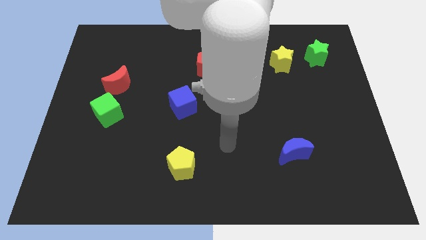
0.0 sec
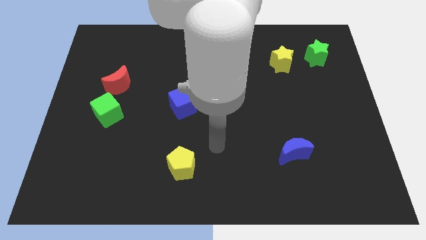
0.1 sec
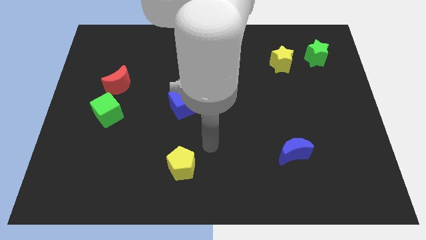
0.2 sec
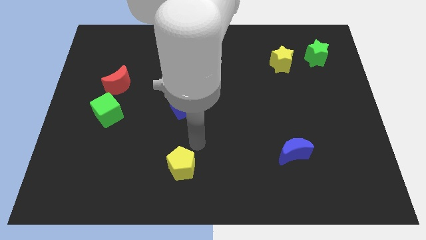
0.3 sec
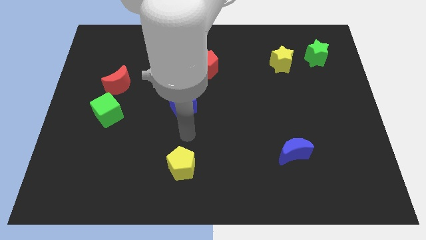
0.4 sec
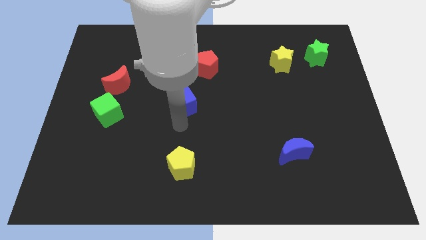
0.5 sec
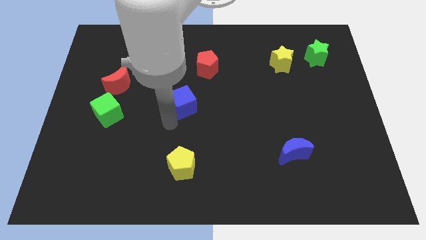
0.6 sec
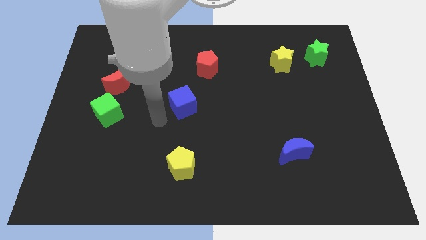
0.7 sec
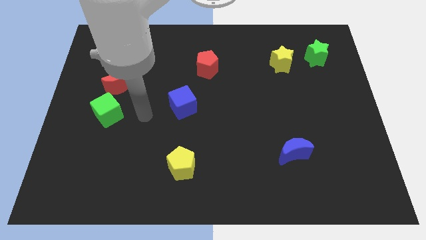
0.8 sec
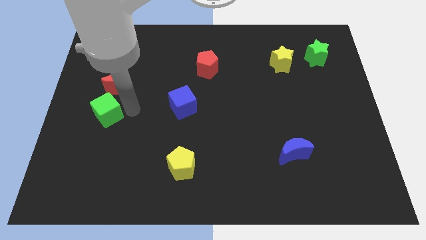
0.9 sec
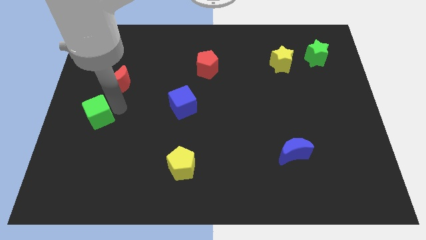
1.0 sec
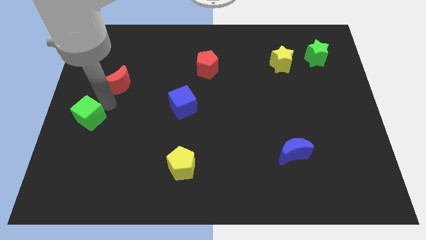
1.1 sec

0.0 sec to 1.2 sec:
move the red moon away from the green cube

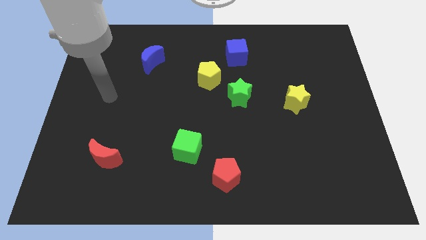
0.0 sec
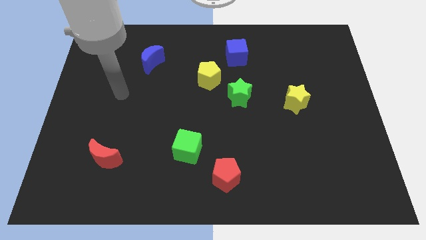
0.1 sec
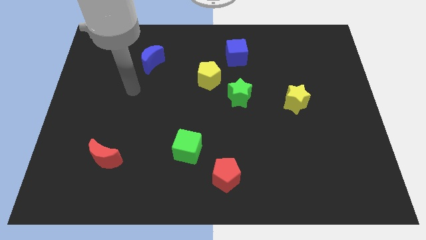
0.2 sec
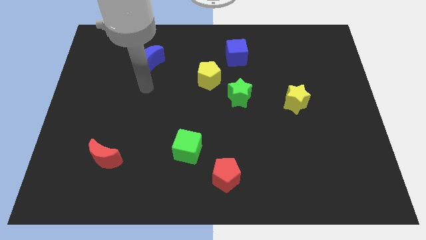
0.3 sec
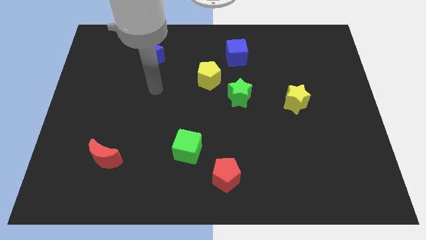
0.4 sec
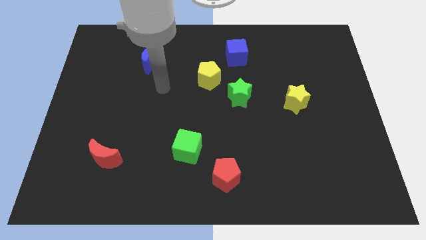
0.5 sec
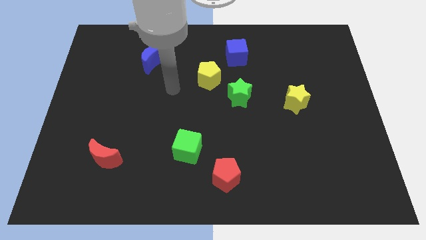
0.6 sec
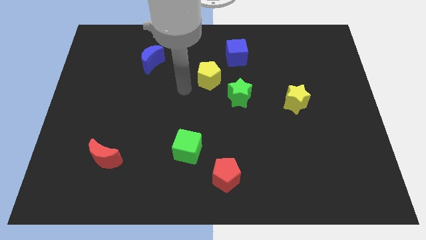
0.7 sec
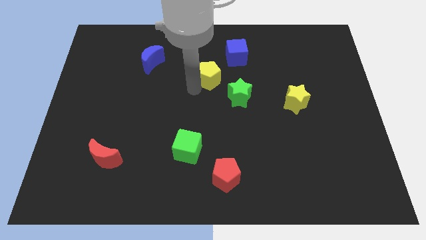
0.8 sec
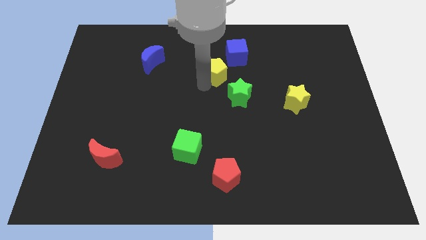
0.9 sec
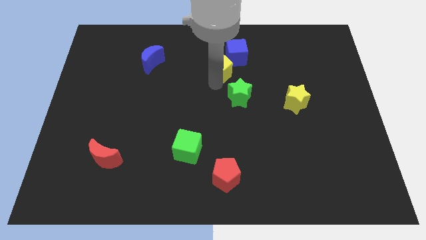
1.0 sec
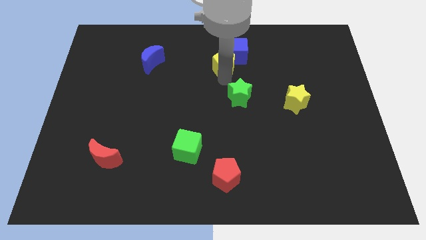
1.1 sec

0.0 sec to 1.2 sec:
pull the green star apart from the yellow pentagon

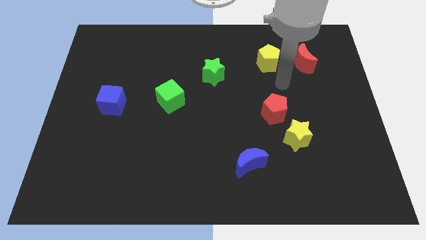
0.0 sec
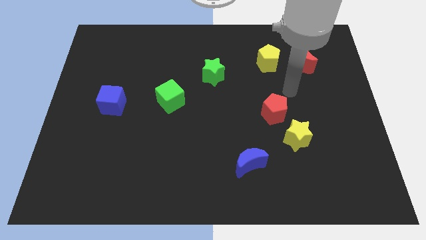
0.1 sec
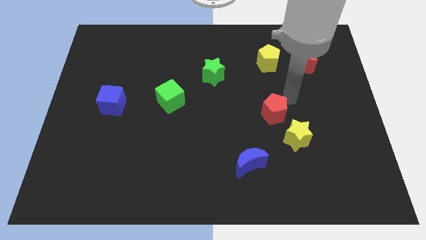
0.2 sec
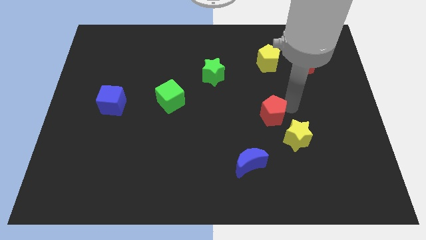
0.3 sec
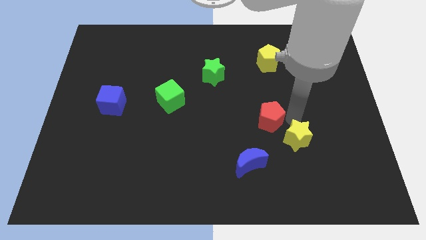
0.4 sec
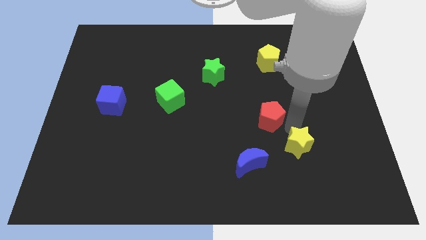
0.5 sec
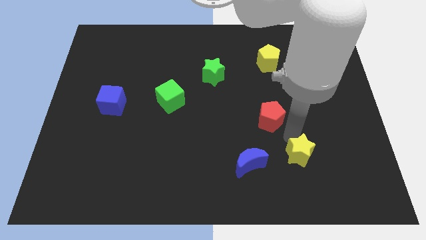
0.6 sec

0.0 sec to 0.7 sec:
separate the red pentagon from the yellow star

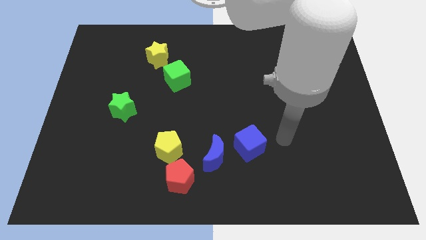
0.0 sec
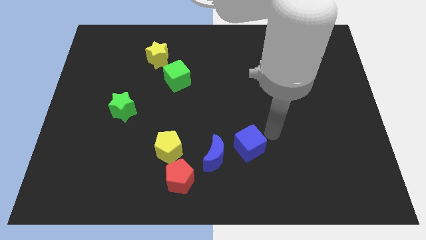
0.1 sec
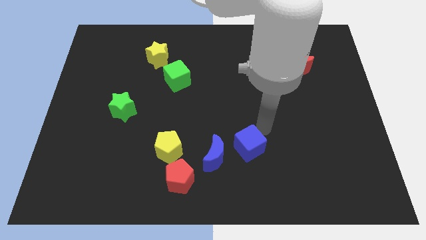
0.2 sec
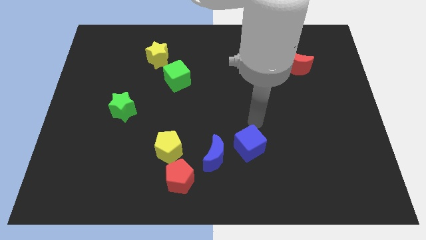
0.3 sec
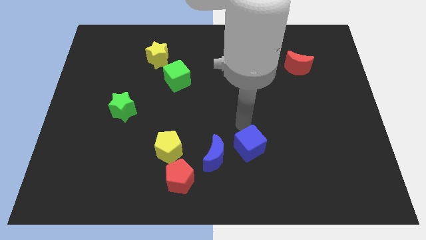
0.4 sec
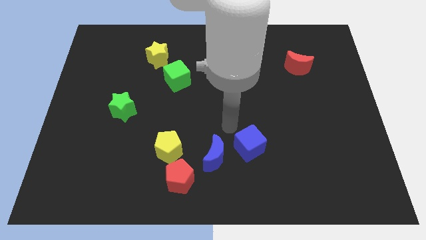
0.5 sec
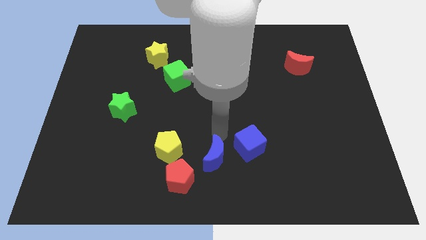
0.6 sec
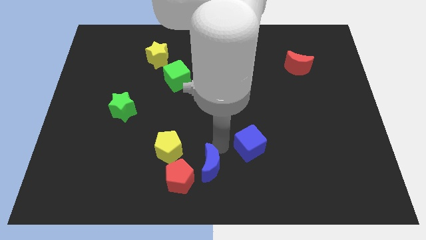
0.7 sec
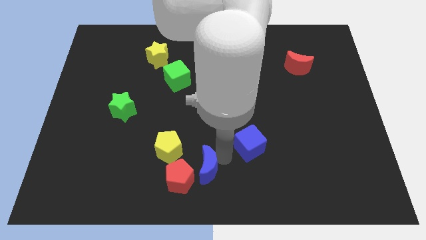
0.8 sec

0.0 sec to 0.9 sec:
separate the blue cube from the blue moon

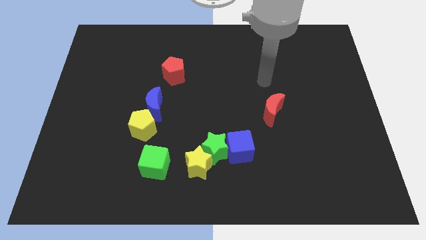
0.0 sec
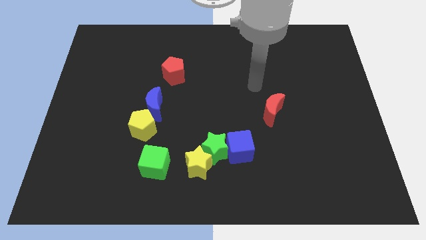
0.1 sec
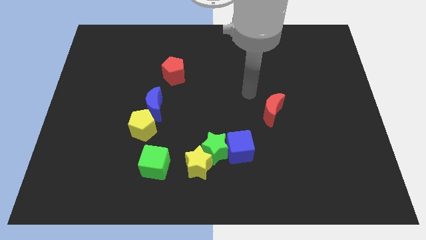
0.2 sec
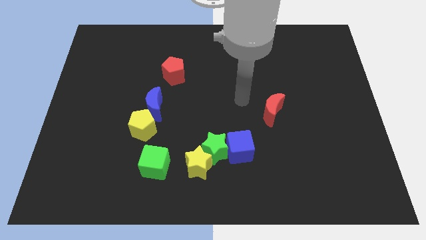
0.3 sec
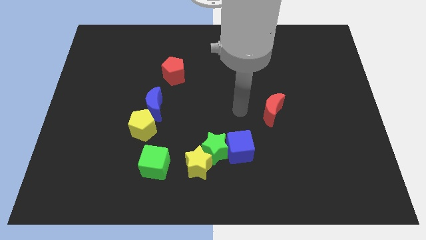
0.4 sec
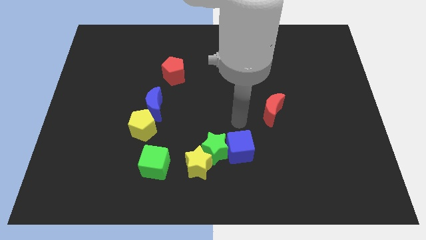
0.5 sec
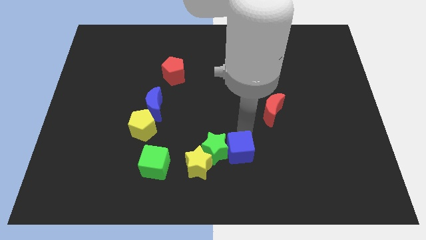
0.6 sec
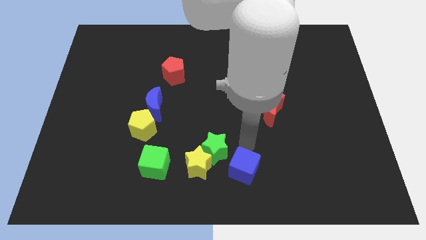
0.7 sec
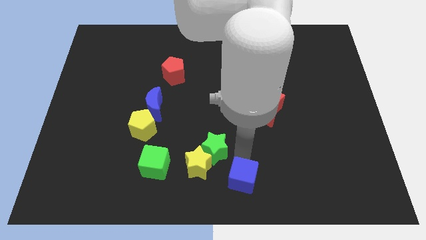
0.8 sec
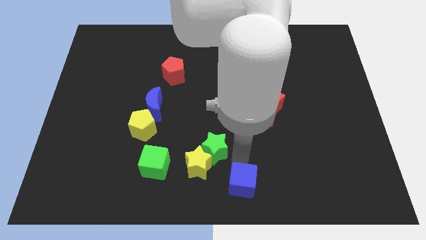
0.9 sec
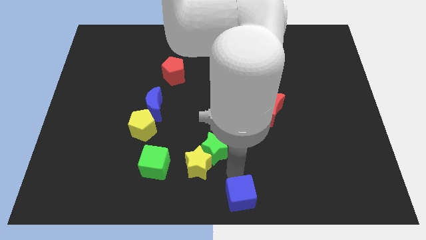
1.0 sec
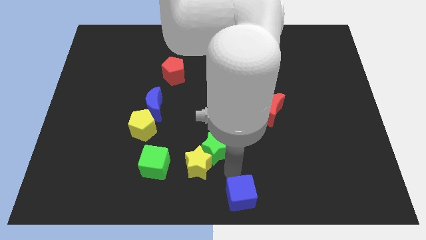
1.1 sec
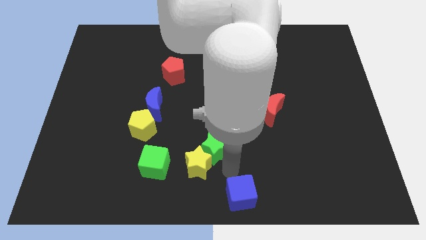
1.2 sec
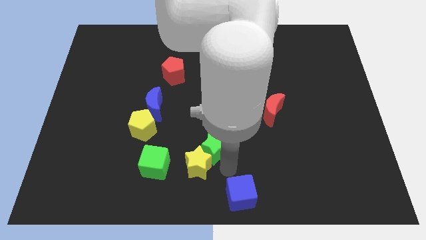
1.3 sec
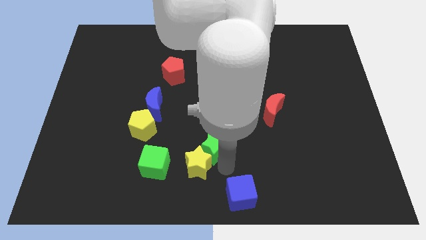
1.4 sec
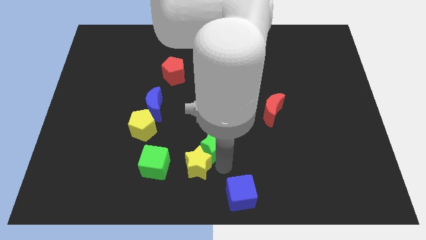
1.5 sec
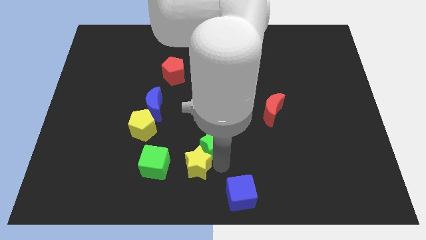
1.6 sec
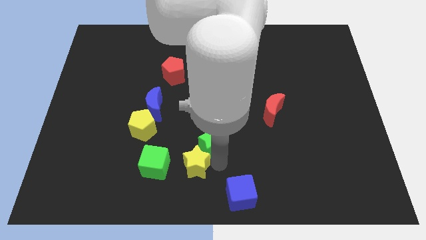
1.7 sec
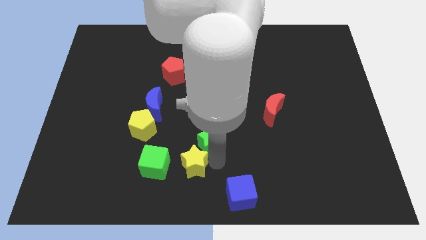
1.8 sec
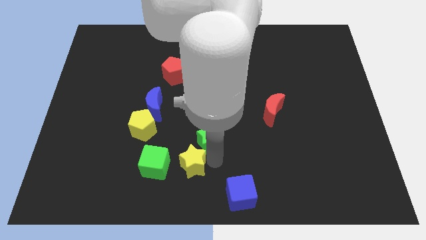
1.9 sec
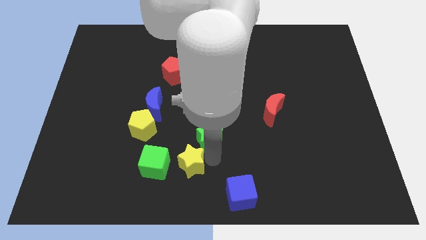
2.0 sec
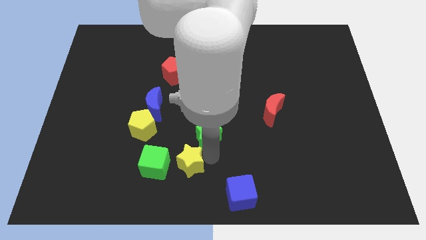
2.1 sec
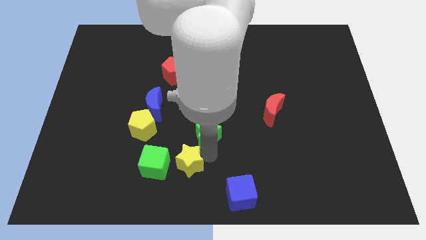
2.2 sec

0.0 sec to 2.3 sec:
move the green star away from the yellow star and blue cube

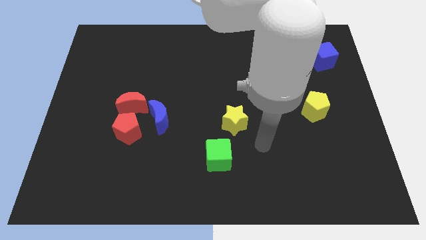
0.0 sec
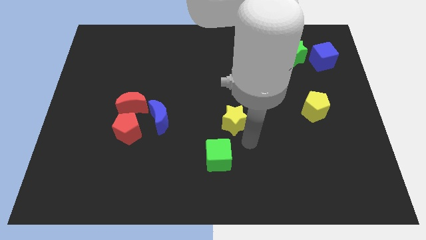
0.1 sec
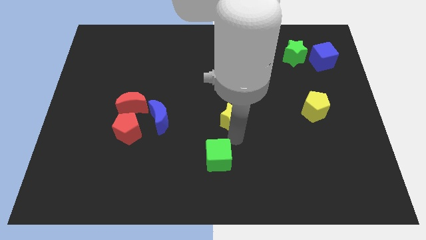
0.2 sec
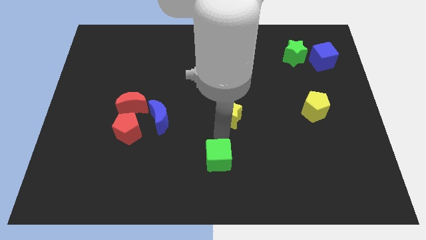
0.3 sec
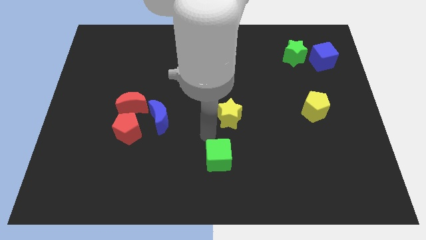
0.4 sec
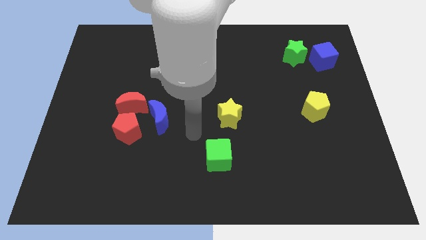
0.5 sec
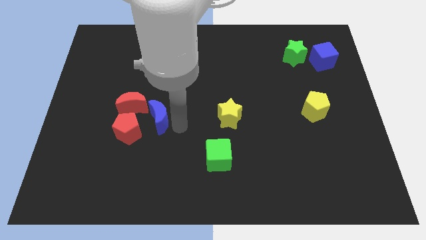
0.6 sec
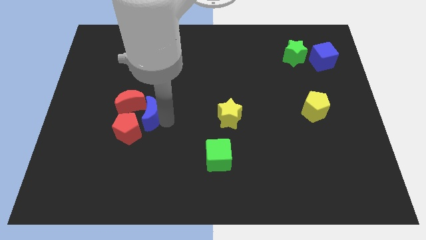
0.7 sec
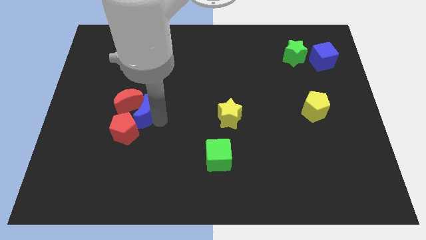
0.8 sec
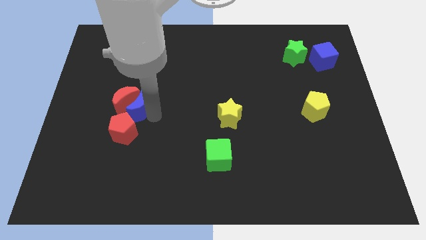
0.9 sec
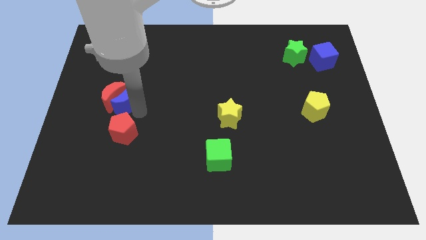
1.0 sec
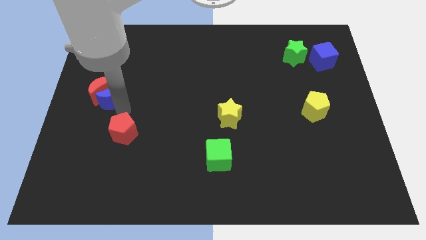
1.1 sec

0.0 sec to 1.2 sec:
separate the red pentagon from the red moon and blue moon

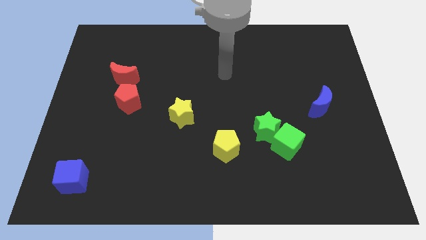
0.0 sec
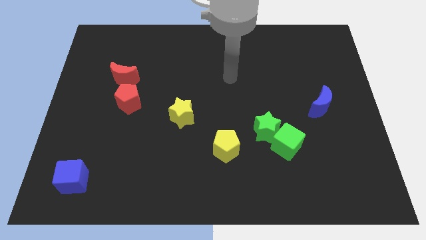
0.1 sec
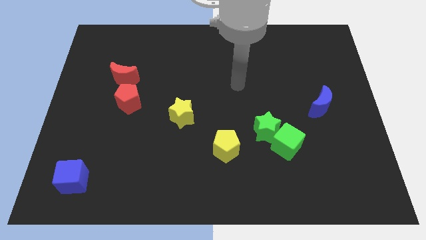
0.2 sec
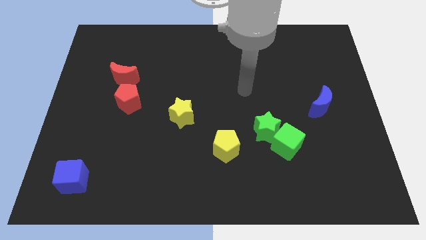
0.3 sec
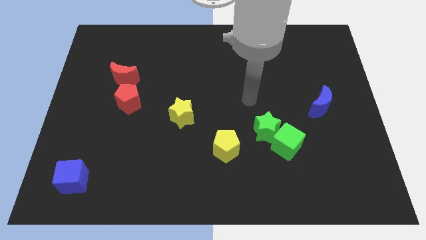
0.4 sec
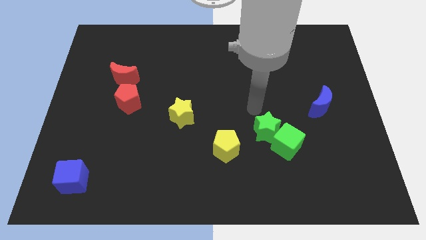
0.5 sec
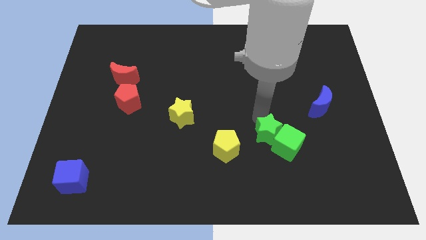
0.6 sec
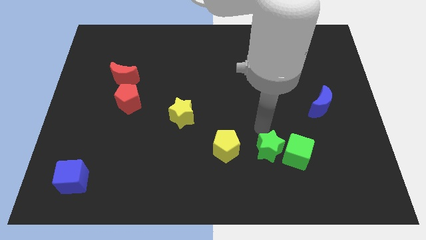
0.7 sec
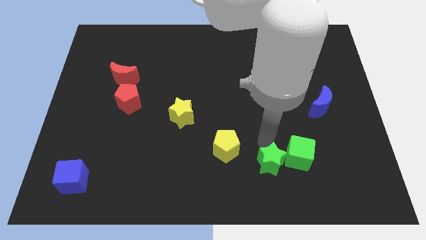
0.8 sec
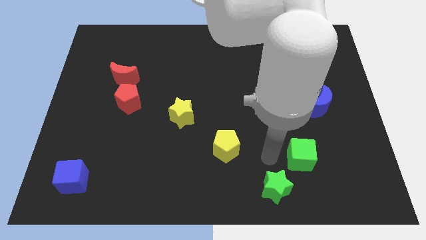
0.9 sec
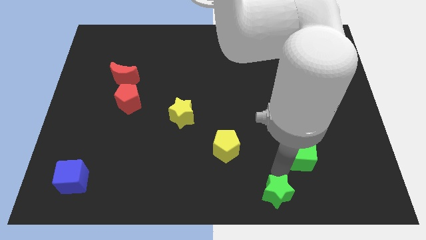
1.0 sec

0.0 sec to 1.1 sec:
move the green cube away from the green star

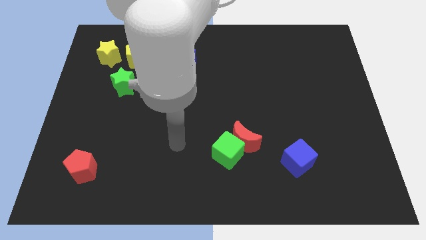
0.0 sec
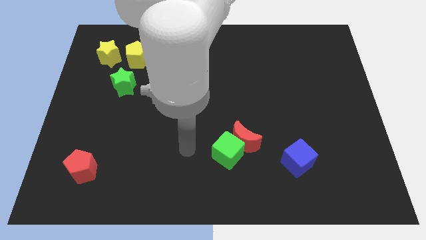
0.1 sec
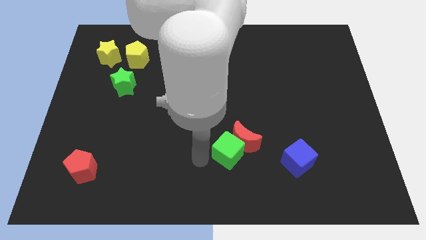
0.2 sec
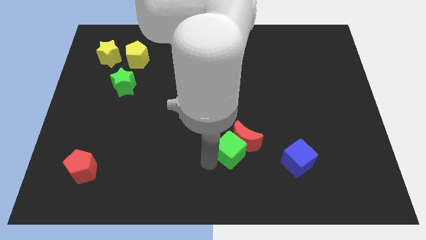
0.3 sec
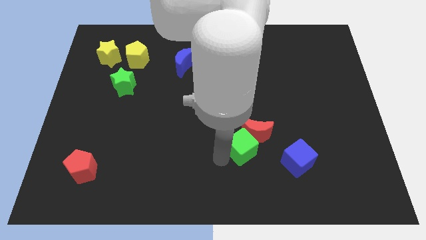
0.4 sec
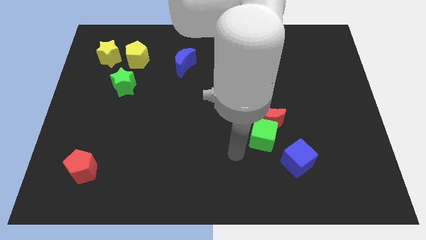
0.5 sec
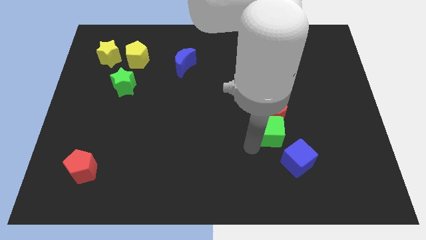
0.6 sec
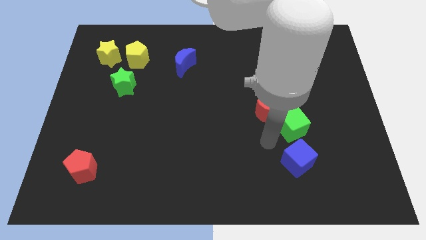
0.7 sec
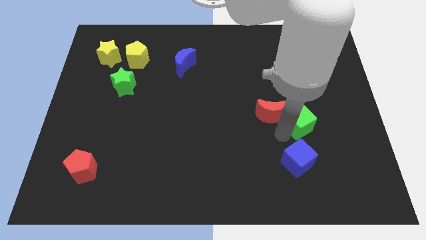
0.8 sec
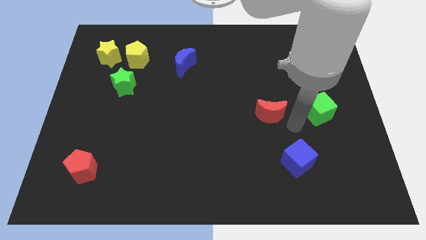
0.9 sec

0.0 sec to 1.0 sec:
pull the red moon apart from the green cube
